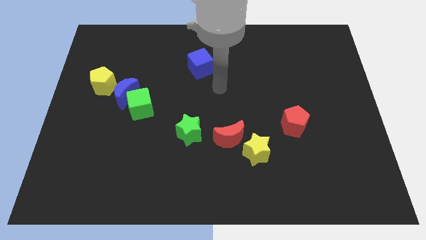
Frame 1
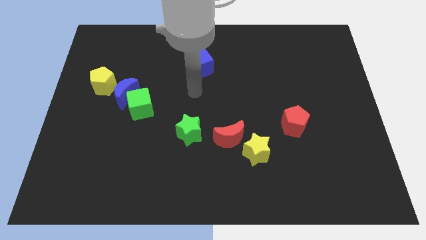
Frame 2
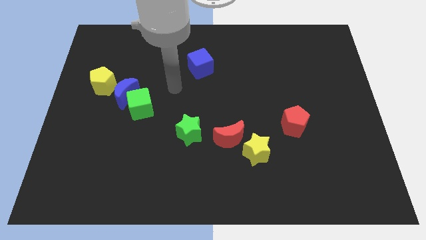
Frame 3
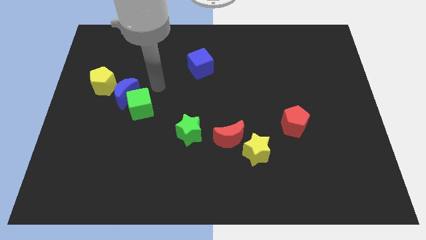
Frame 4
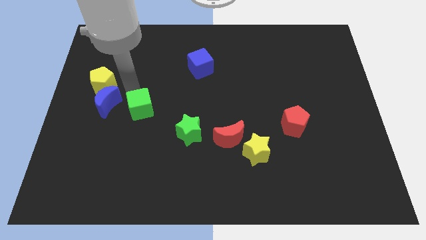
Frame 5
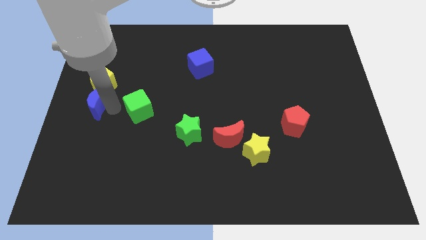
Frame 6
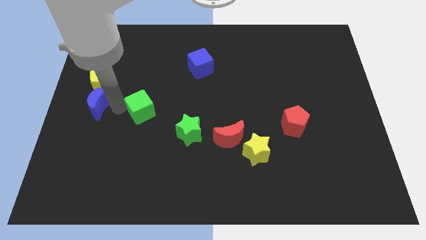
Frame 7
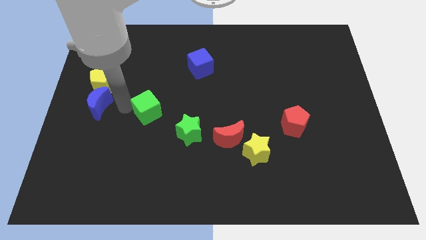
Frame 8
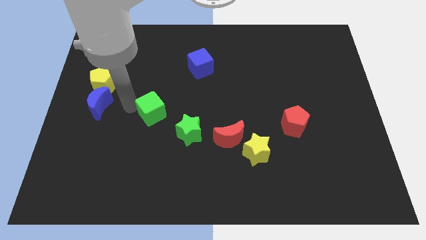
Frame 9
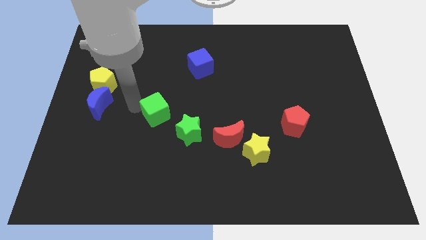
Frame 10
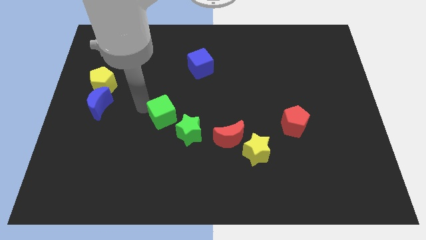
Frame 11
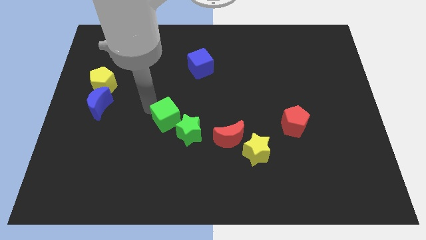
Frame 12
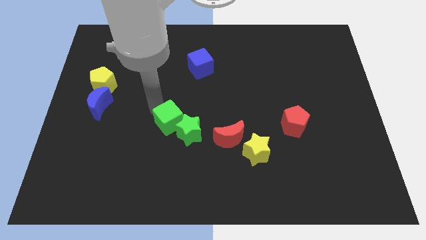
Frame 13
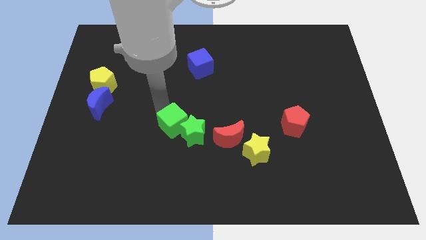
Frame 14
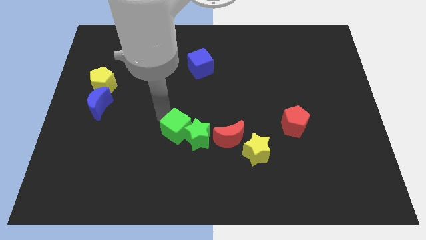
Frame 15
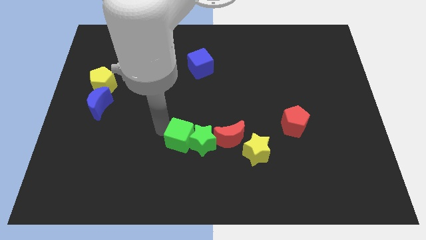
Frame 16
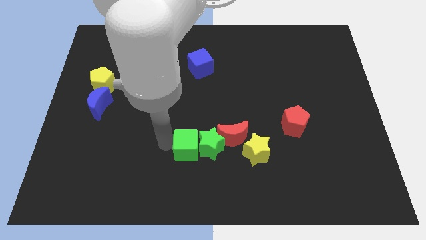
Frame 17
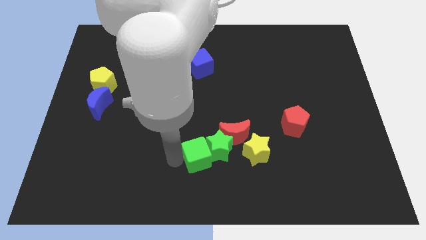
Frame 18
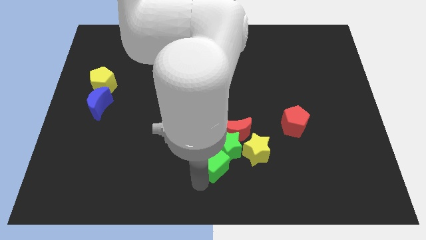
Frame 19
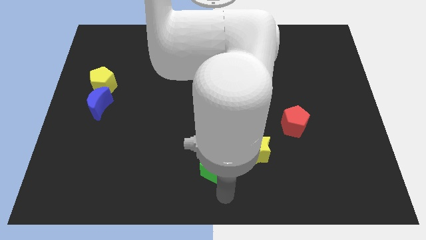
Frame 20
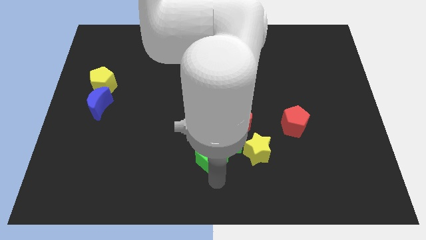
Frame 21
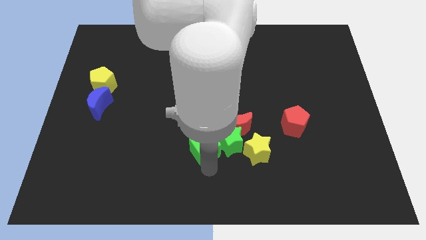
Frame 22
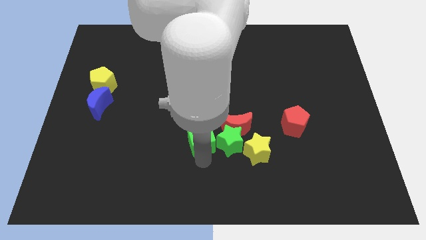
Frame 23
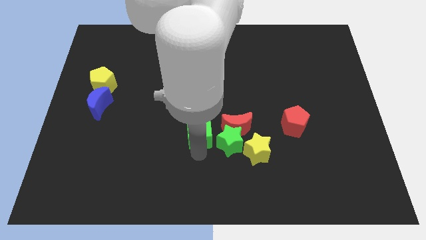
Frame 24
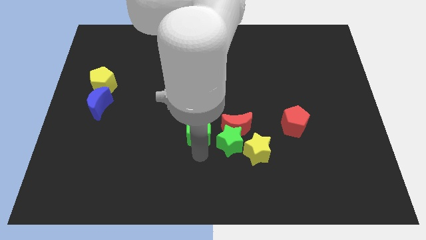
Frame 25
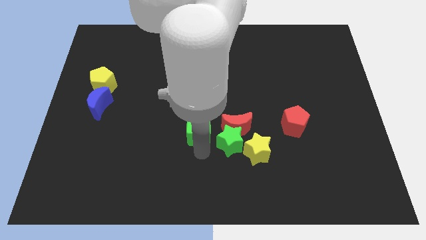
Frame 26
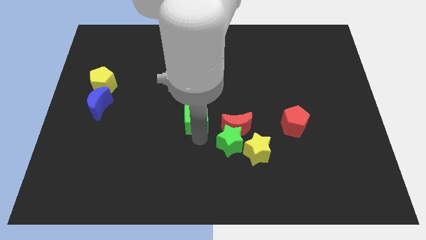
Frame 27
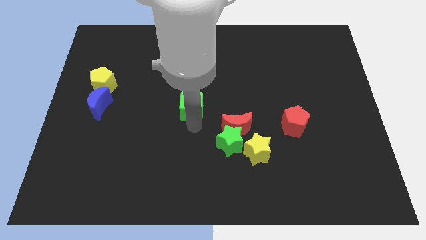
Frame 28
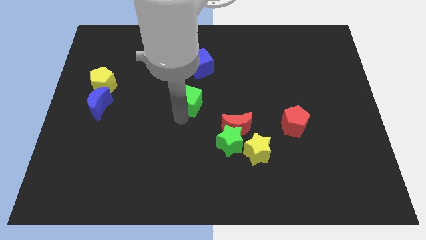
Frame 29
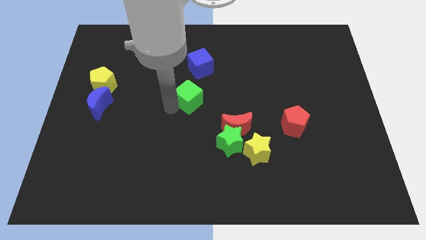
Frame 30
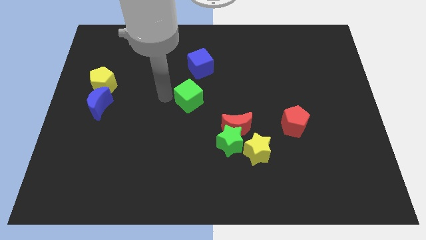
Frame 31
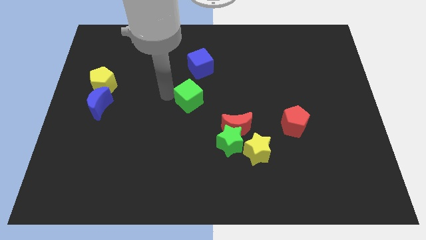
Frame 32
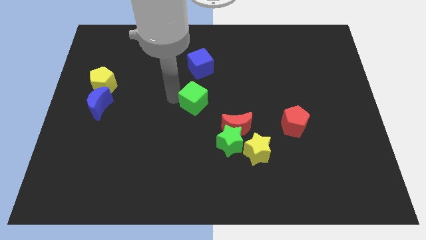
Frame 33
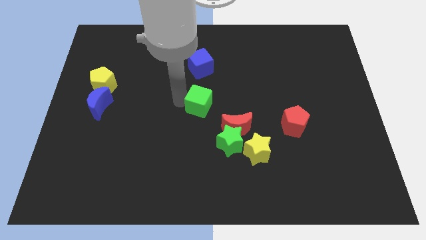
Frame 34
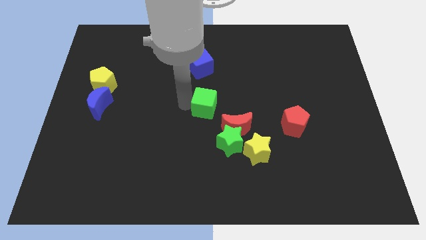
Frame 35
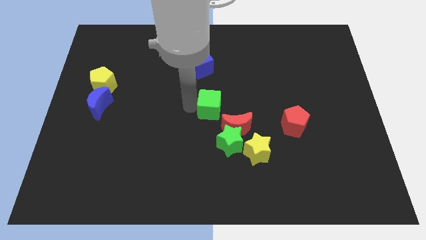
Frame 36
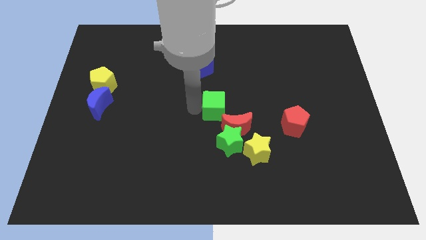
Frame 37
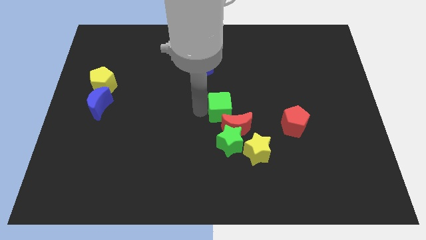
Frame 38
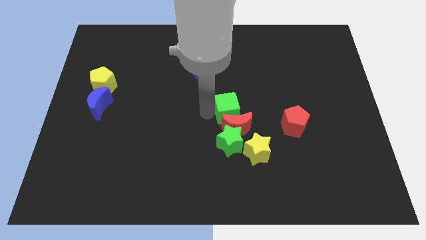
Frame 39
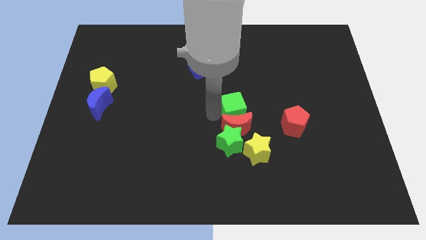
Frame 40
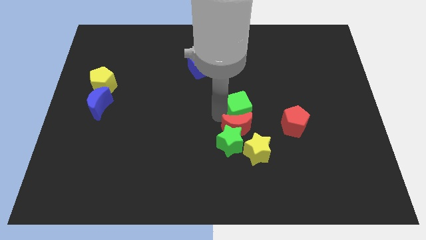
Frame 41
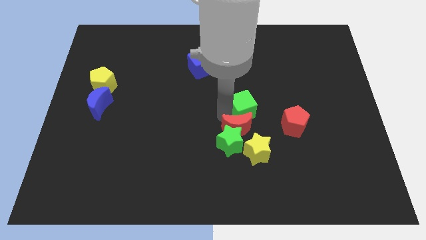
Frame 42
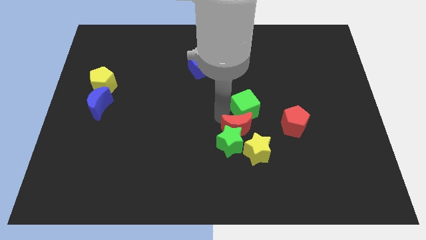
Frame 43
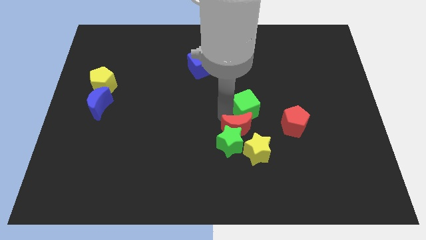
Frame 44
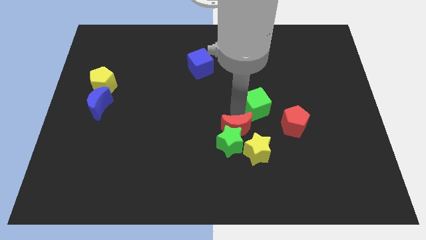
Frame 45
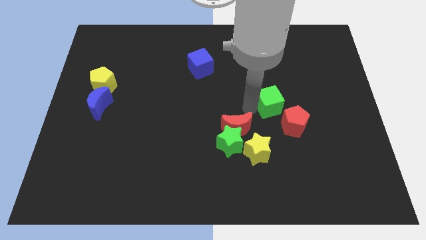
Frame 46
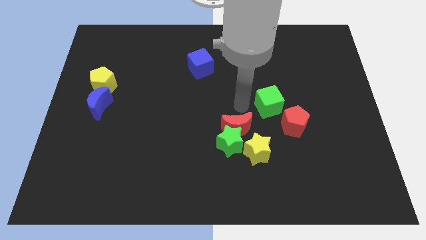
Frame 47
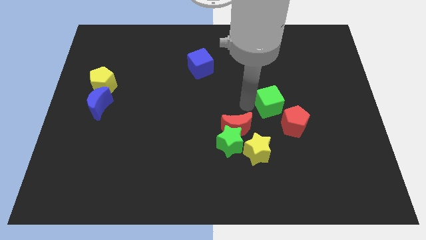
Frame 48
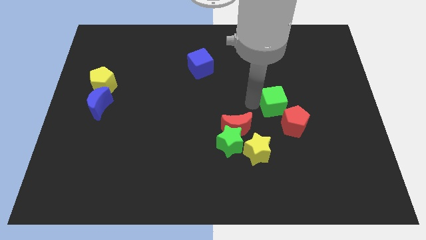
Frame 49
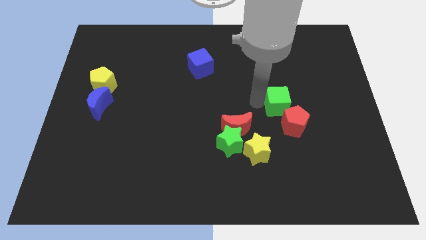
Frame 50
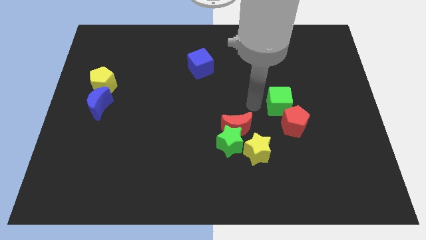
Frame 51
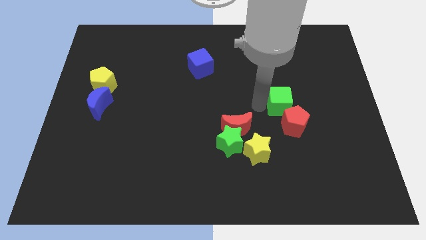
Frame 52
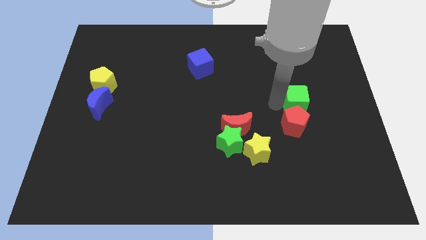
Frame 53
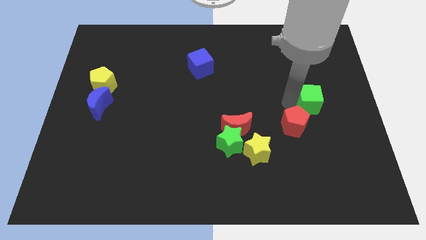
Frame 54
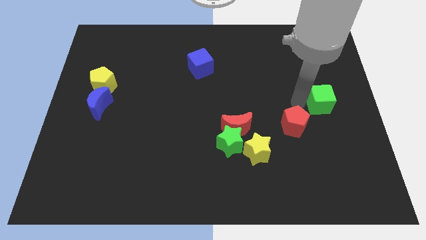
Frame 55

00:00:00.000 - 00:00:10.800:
push the green cube to the right side
